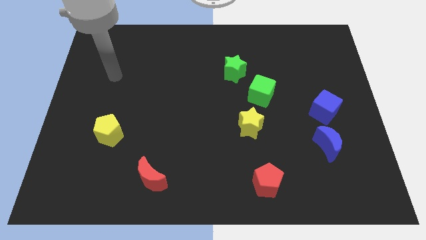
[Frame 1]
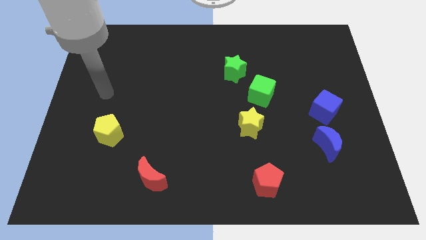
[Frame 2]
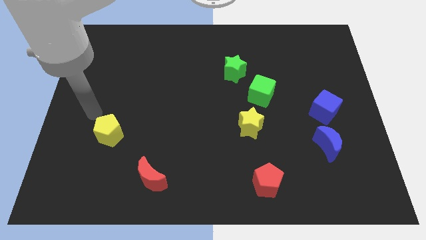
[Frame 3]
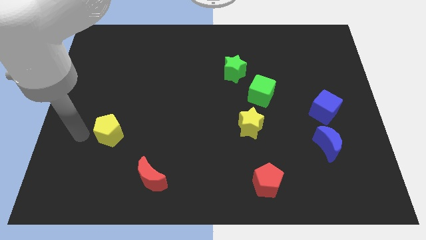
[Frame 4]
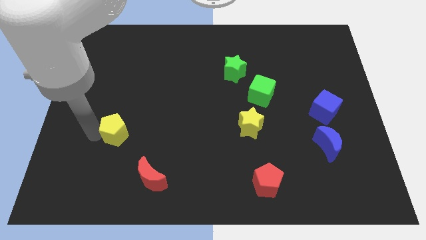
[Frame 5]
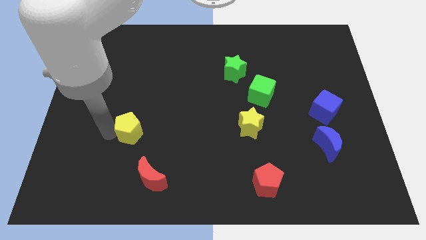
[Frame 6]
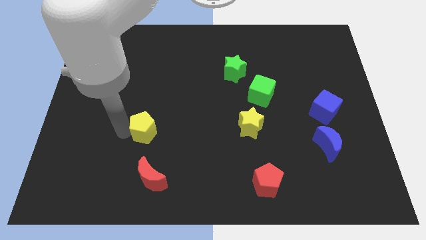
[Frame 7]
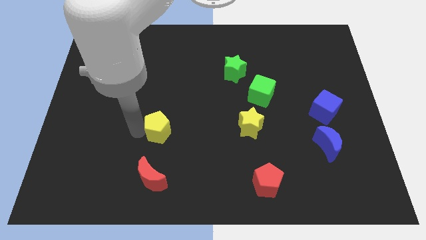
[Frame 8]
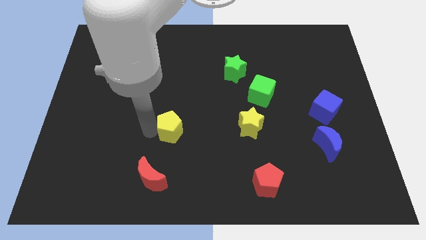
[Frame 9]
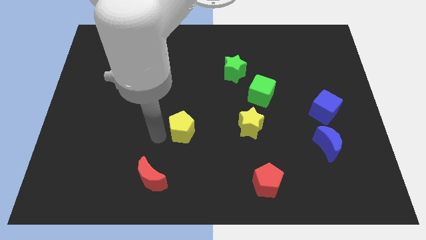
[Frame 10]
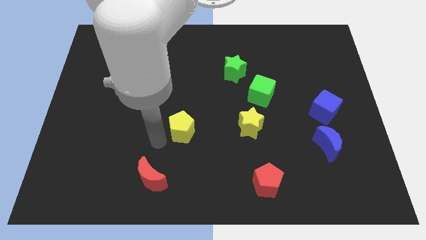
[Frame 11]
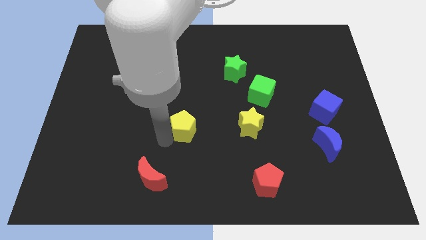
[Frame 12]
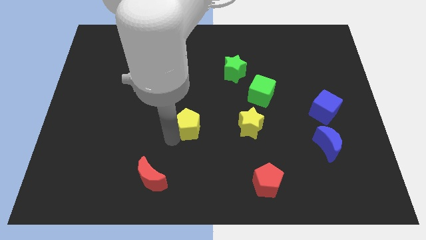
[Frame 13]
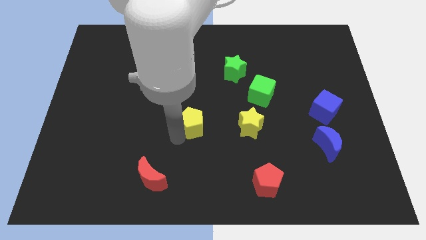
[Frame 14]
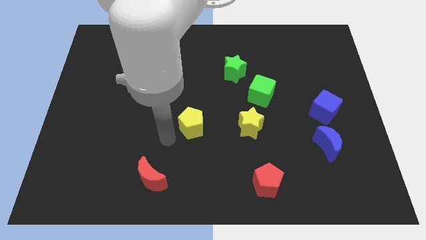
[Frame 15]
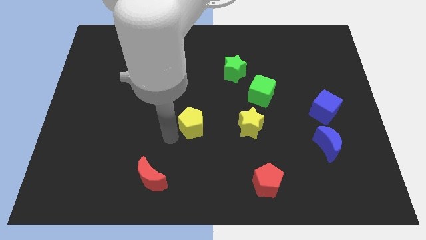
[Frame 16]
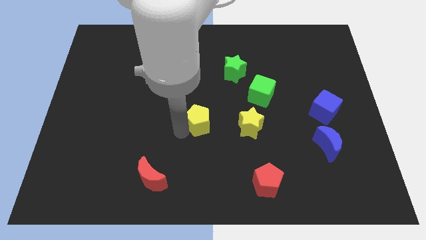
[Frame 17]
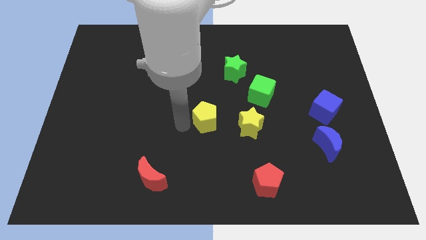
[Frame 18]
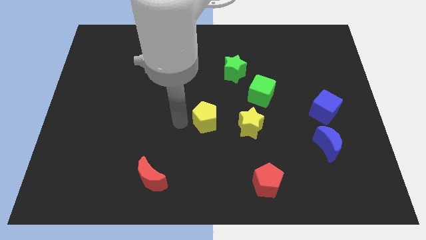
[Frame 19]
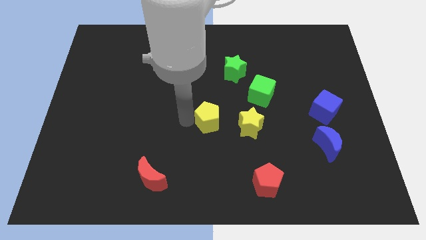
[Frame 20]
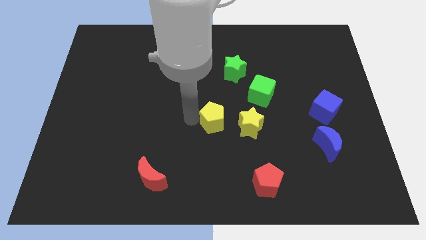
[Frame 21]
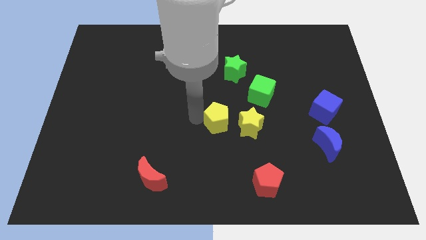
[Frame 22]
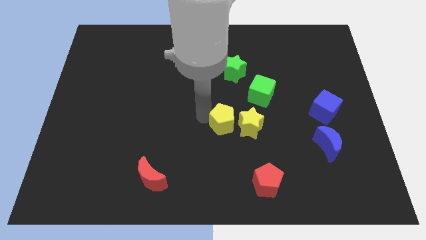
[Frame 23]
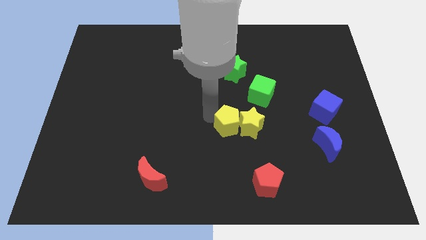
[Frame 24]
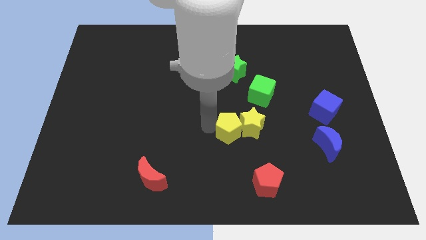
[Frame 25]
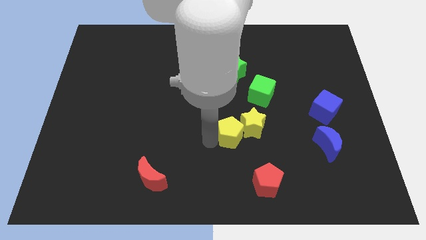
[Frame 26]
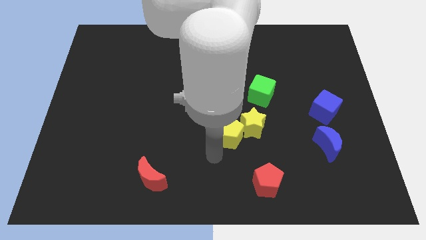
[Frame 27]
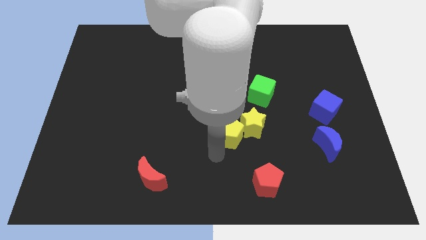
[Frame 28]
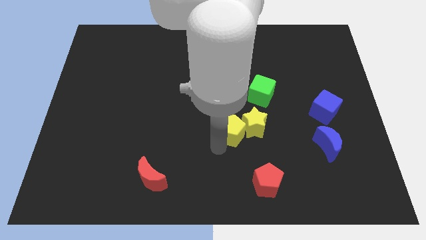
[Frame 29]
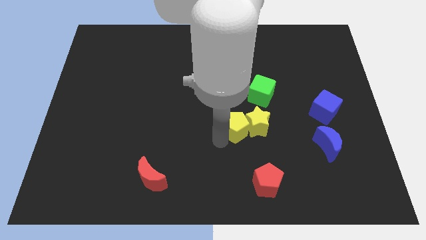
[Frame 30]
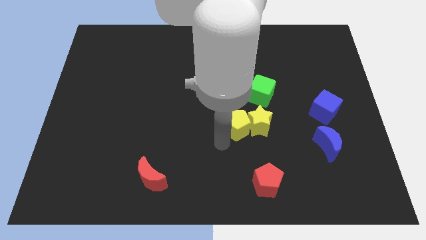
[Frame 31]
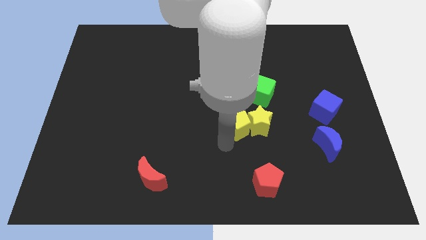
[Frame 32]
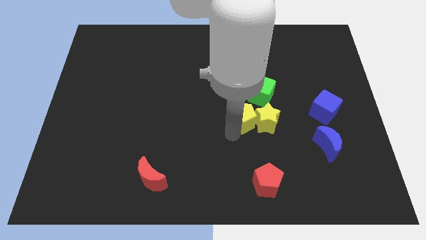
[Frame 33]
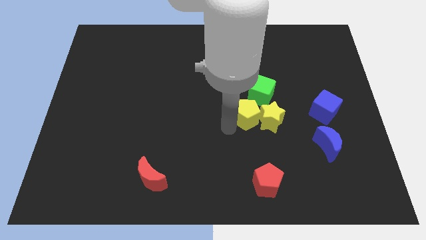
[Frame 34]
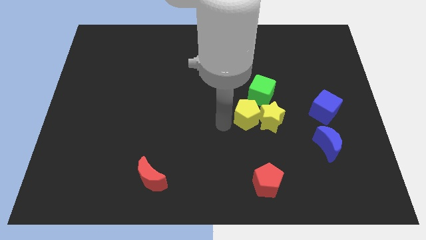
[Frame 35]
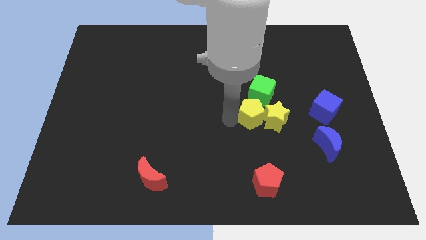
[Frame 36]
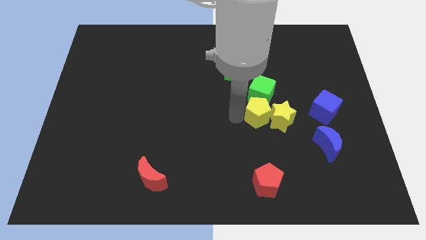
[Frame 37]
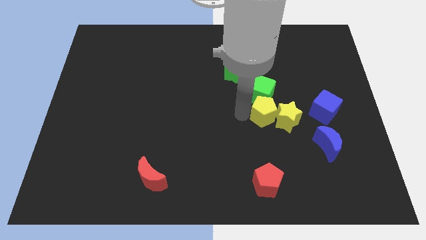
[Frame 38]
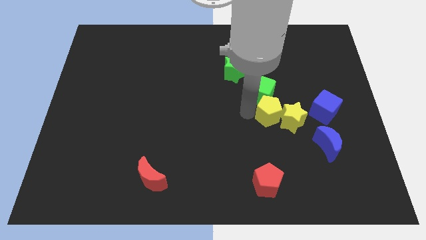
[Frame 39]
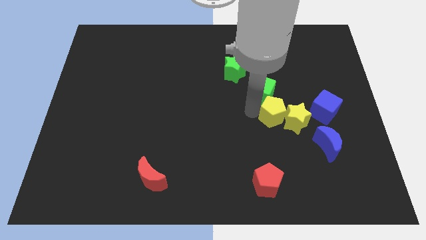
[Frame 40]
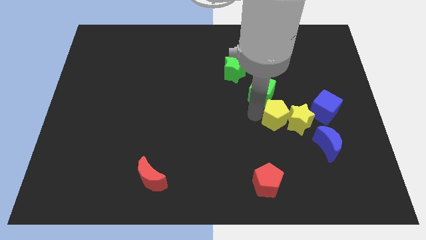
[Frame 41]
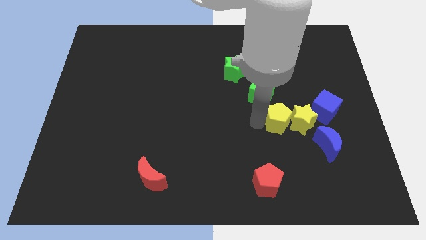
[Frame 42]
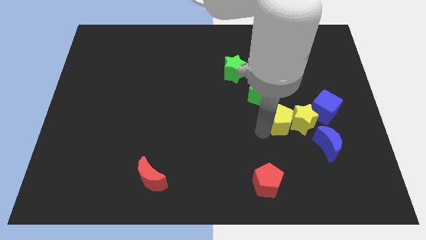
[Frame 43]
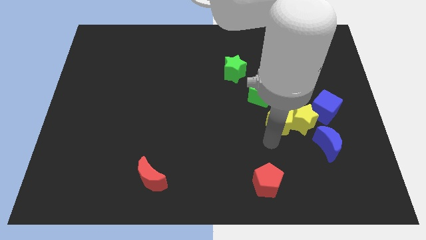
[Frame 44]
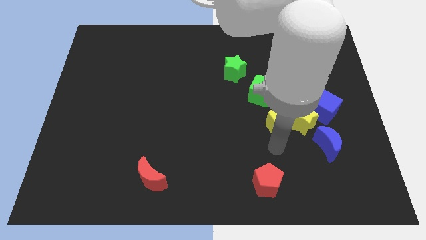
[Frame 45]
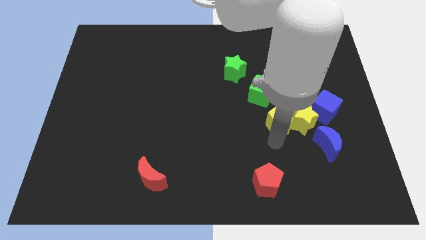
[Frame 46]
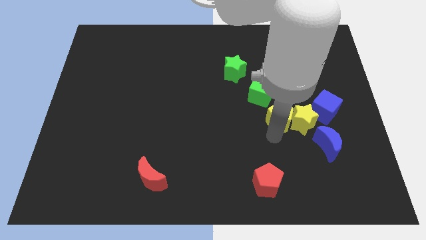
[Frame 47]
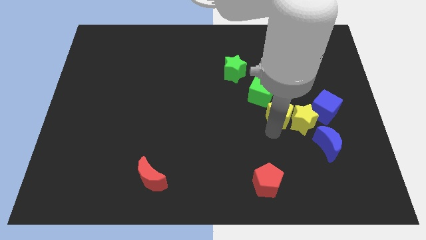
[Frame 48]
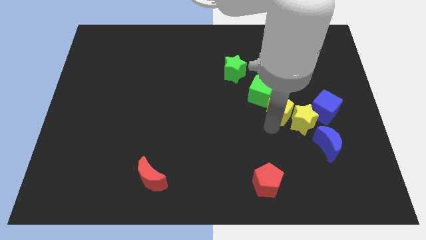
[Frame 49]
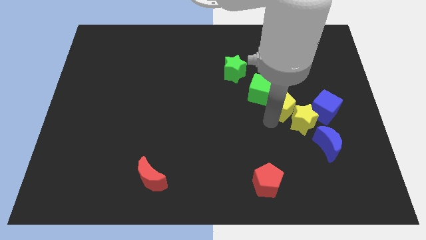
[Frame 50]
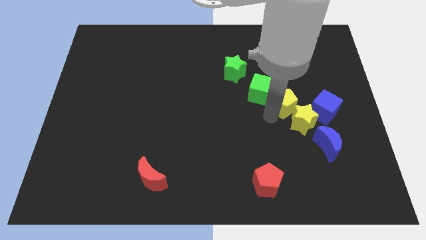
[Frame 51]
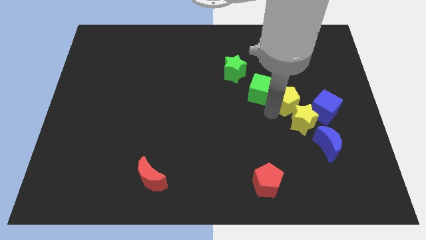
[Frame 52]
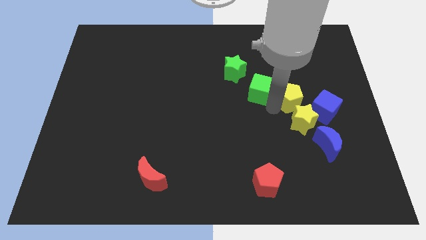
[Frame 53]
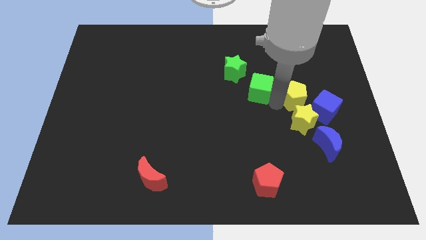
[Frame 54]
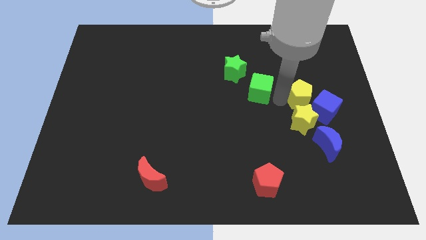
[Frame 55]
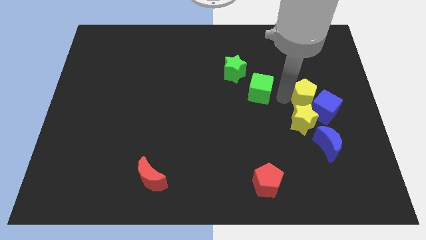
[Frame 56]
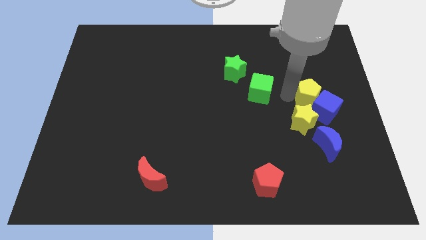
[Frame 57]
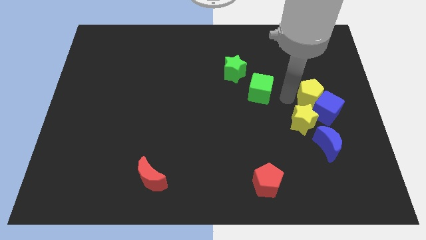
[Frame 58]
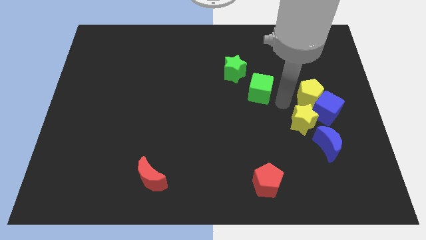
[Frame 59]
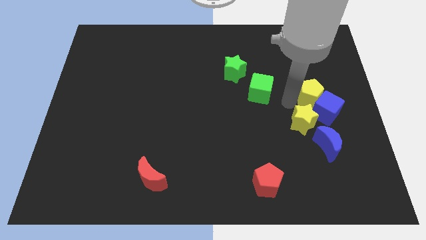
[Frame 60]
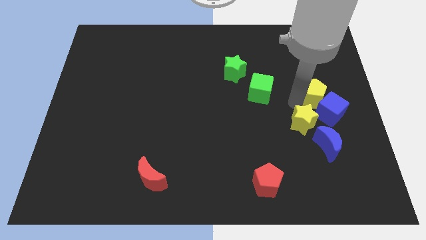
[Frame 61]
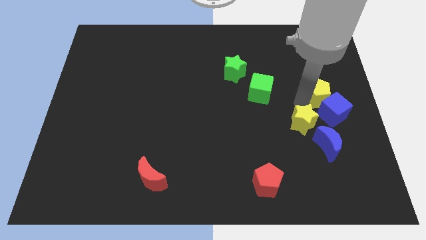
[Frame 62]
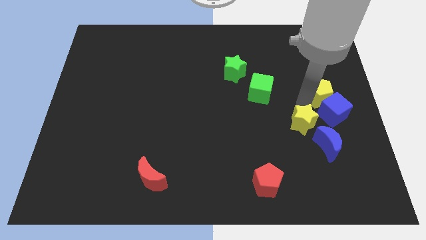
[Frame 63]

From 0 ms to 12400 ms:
move the yellow pentagon to the right side

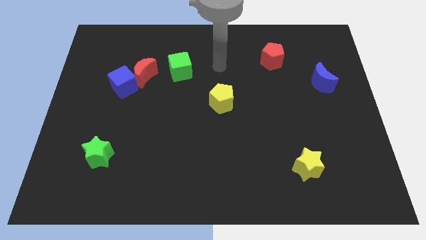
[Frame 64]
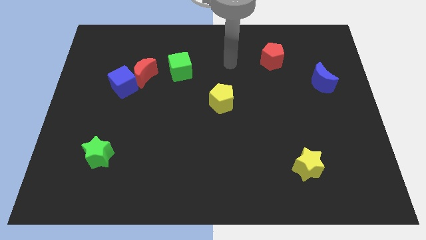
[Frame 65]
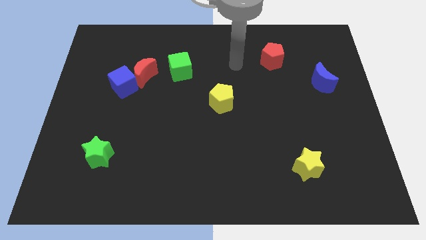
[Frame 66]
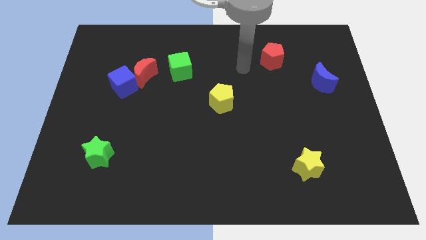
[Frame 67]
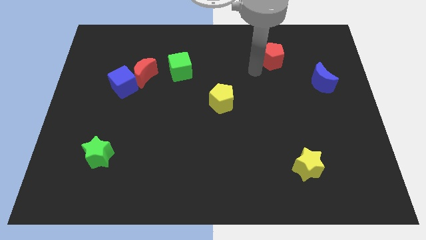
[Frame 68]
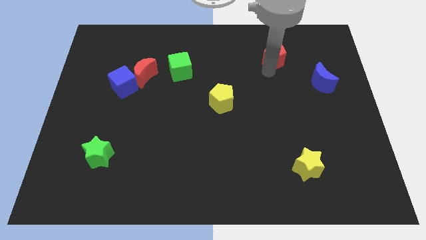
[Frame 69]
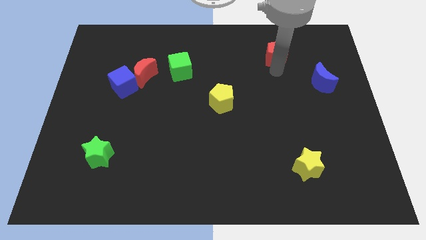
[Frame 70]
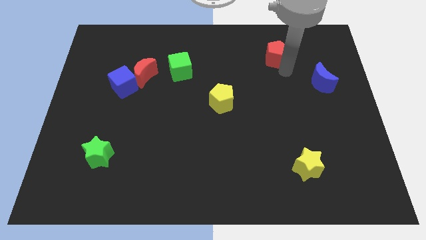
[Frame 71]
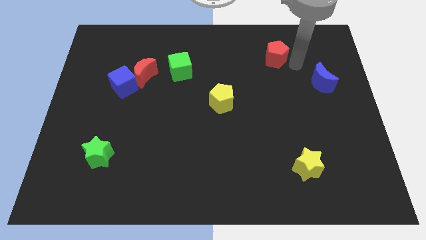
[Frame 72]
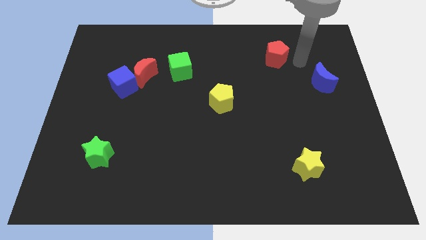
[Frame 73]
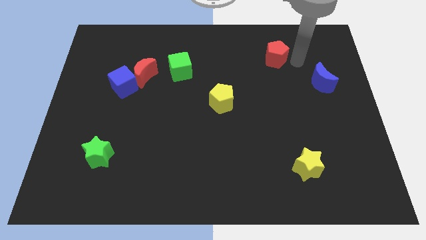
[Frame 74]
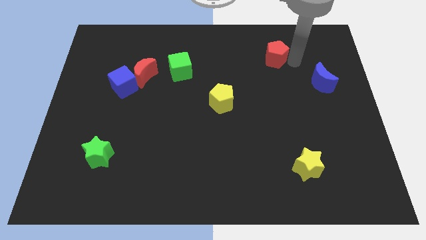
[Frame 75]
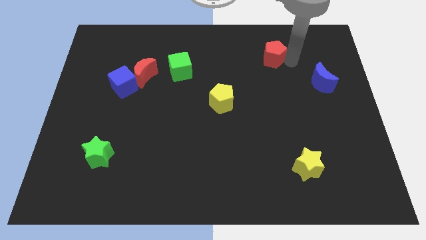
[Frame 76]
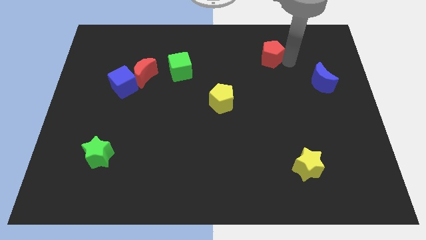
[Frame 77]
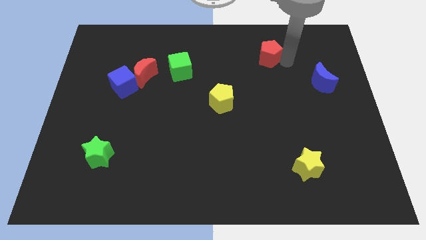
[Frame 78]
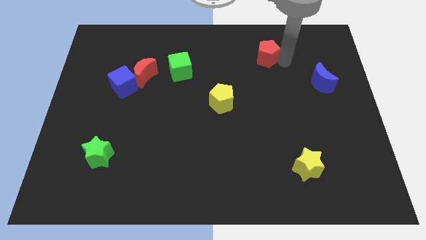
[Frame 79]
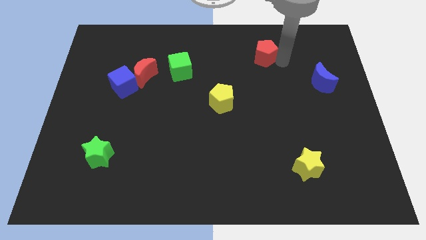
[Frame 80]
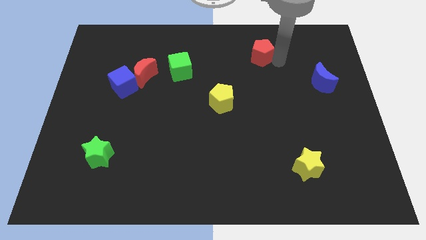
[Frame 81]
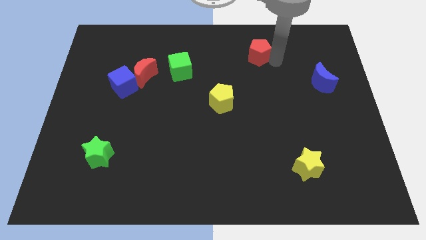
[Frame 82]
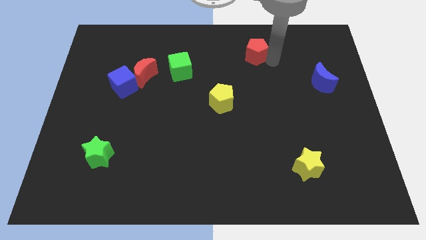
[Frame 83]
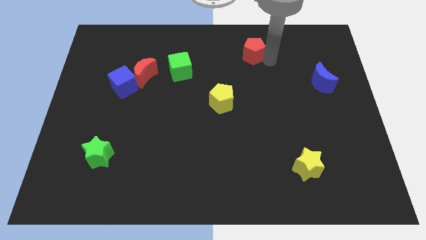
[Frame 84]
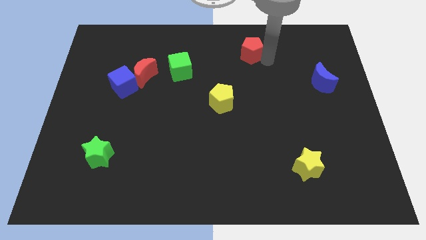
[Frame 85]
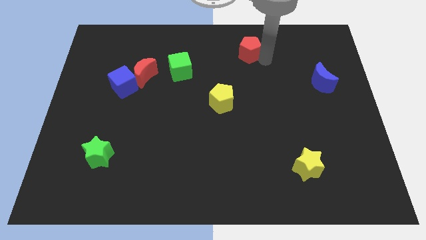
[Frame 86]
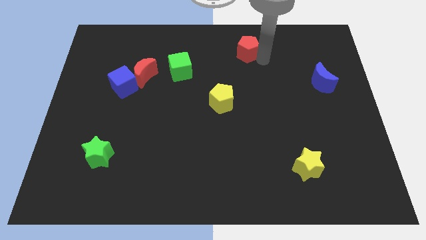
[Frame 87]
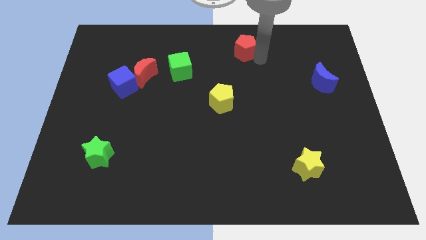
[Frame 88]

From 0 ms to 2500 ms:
move the red pentagon to the top
